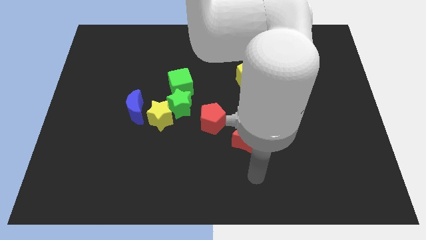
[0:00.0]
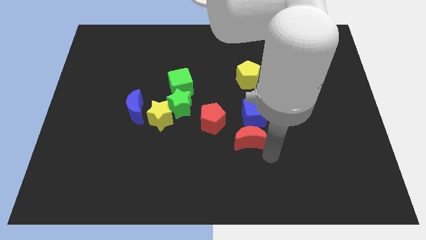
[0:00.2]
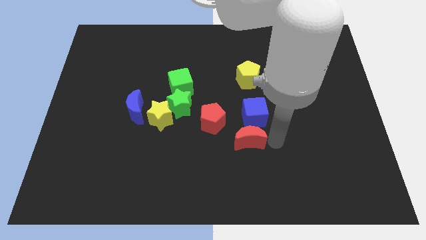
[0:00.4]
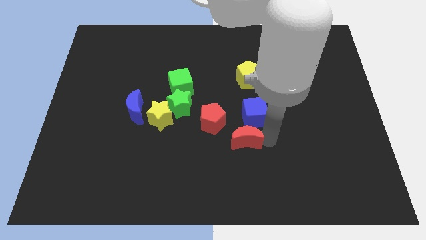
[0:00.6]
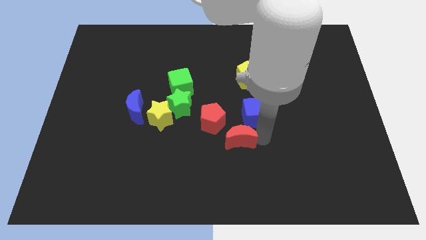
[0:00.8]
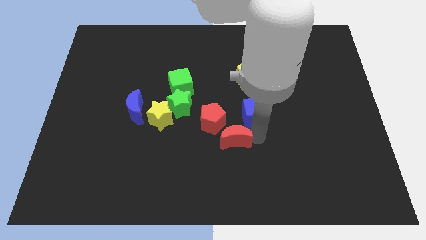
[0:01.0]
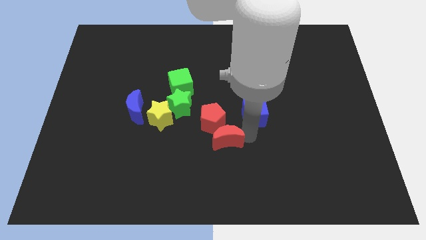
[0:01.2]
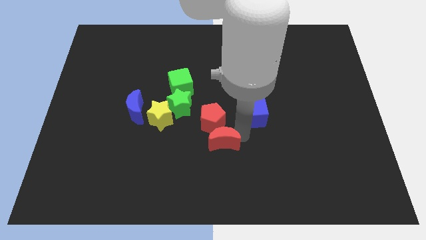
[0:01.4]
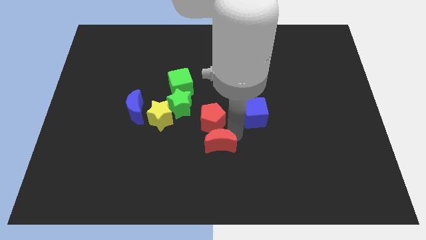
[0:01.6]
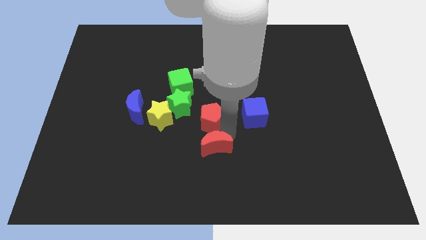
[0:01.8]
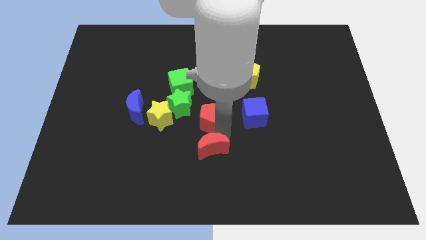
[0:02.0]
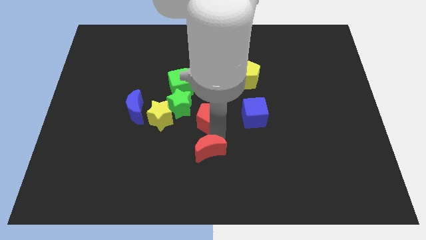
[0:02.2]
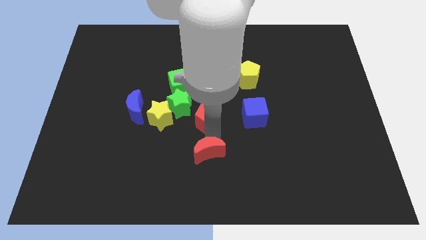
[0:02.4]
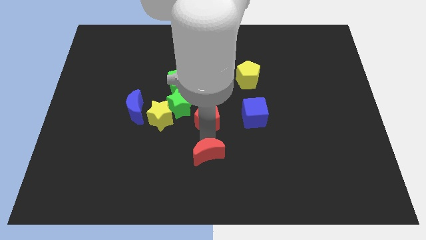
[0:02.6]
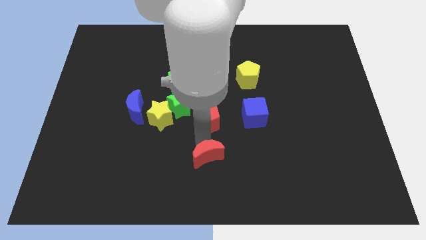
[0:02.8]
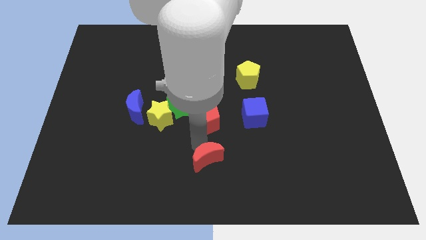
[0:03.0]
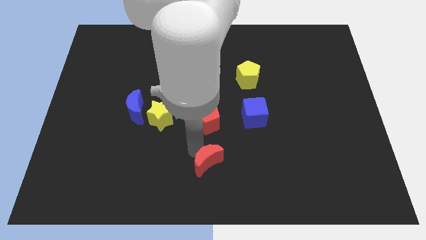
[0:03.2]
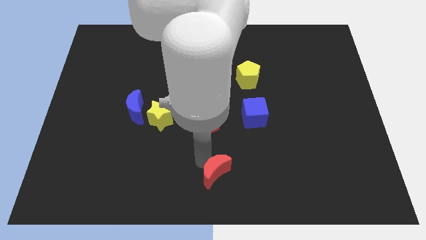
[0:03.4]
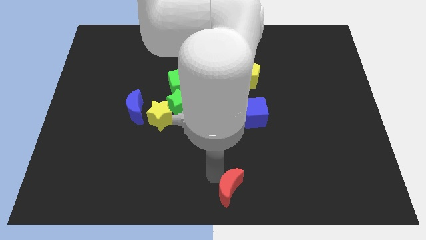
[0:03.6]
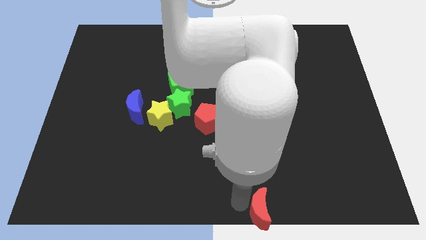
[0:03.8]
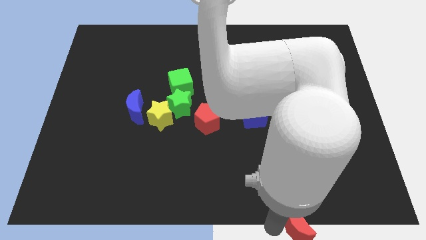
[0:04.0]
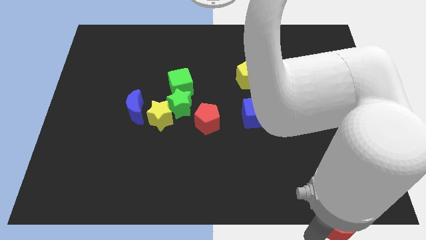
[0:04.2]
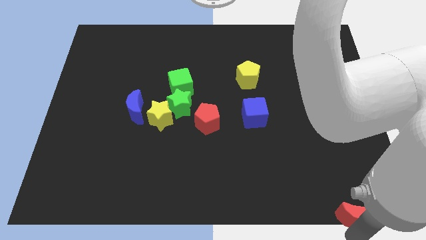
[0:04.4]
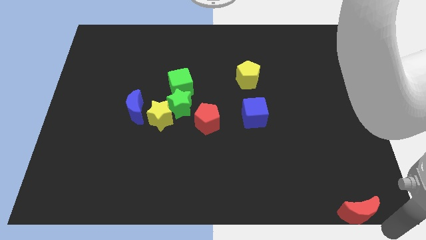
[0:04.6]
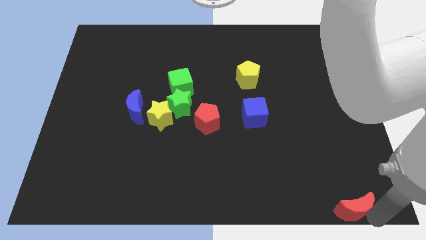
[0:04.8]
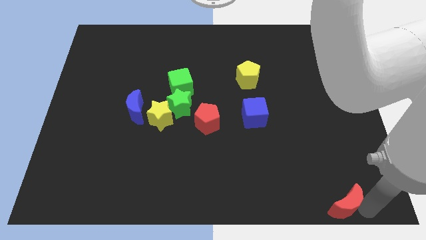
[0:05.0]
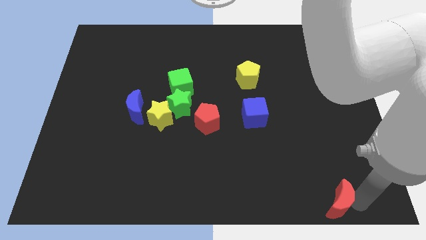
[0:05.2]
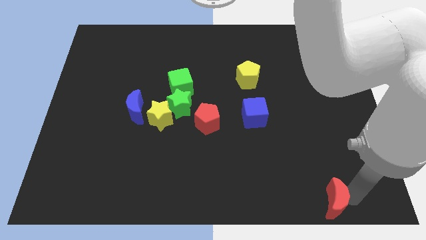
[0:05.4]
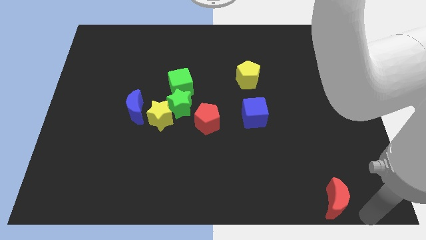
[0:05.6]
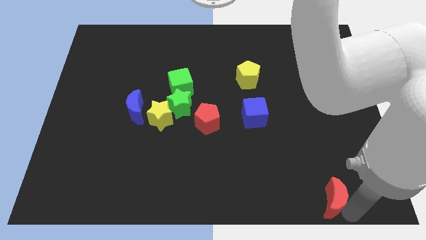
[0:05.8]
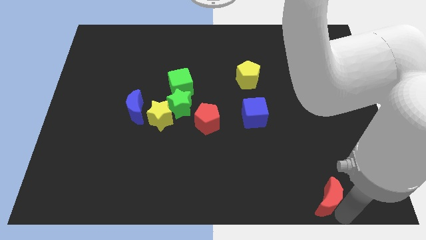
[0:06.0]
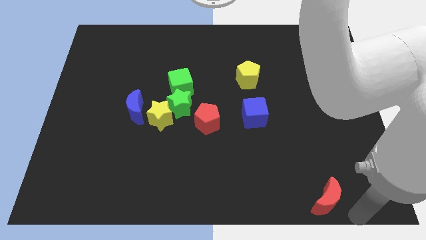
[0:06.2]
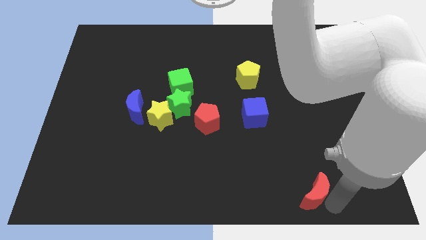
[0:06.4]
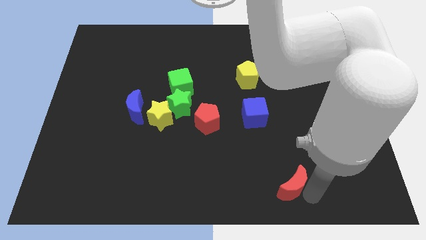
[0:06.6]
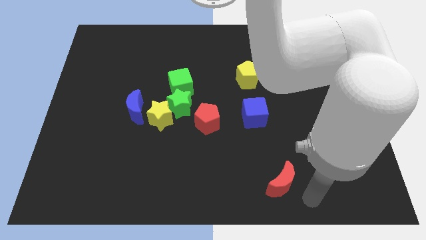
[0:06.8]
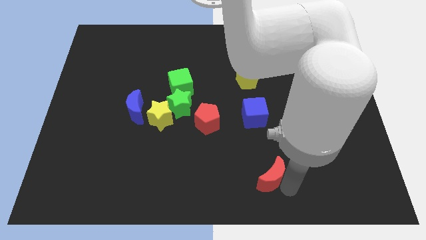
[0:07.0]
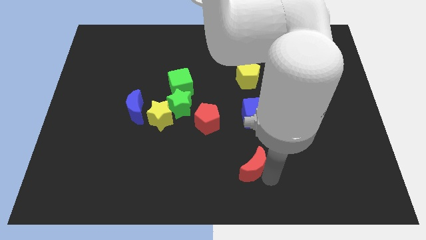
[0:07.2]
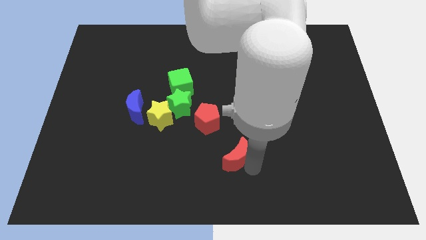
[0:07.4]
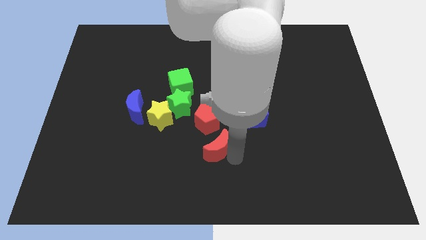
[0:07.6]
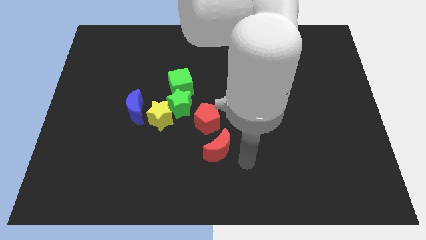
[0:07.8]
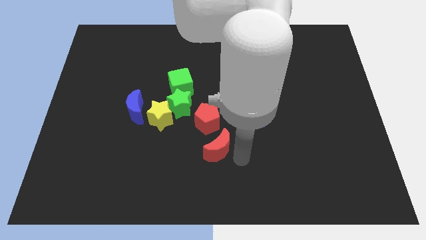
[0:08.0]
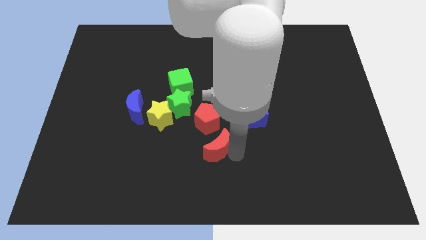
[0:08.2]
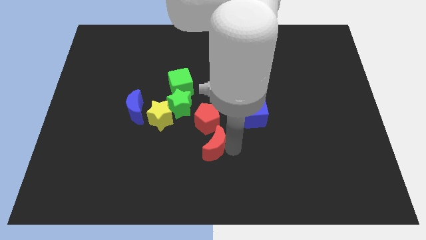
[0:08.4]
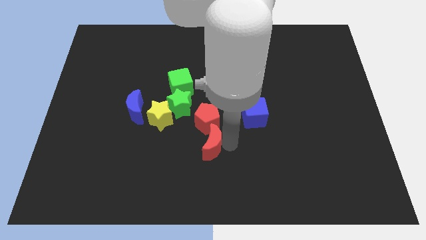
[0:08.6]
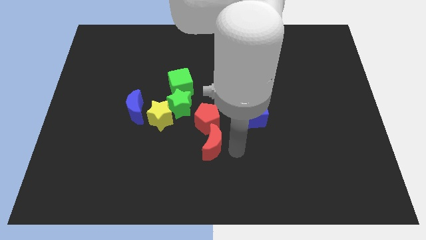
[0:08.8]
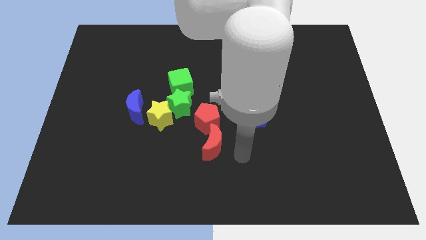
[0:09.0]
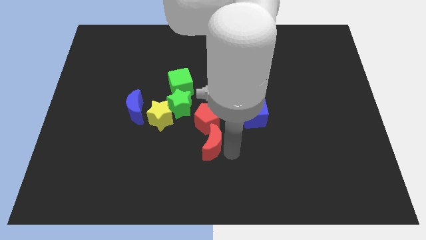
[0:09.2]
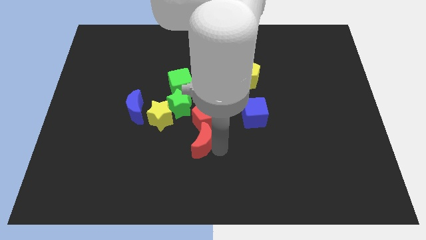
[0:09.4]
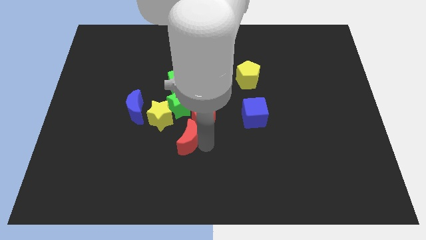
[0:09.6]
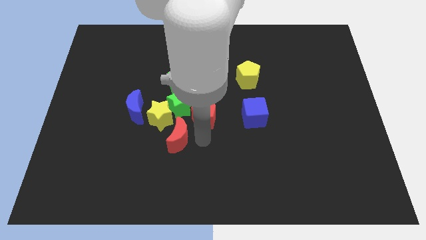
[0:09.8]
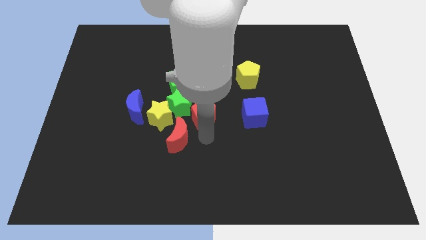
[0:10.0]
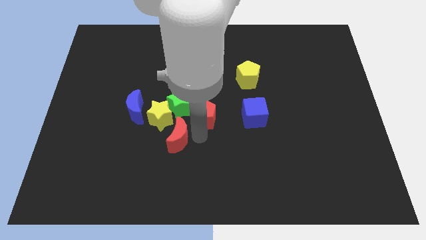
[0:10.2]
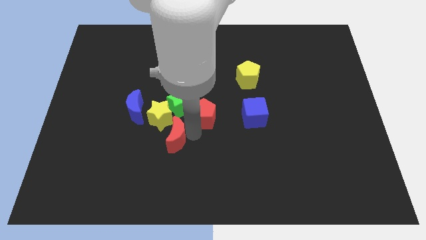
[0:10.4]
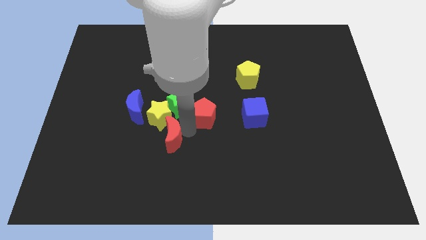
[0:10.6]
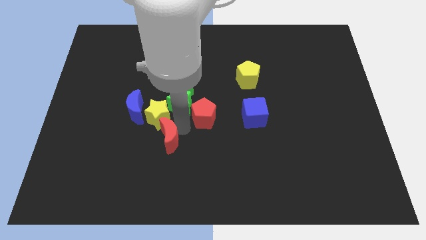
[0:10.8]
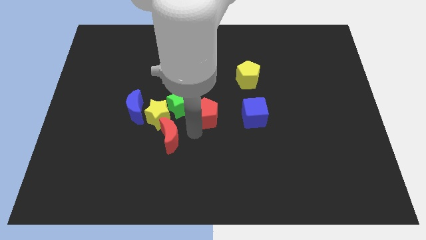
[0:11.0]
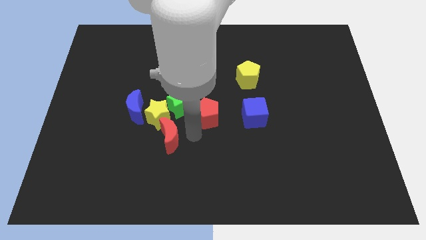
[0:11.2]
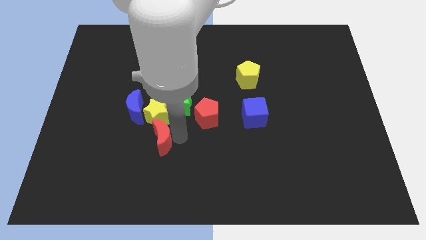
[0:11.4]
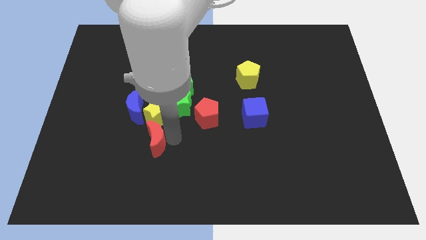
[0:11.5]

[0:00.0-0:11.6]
push the red moon left

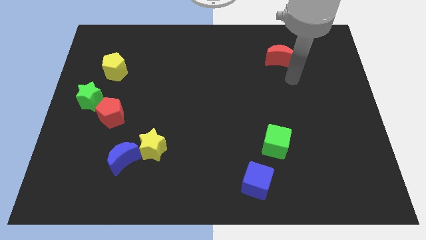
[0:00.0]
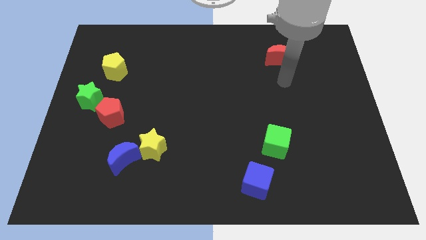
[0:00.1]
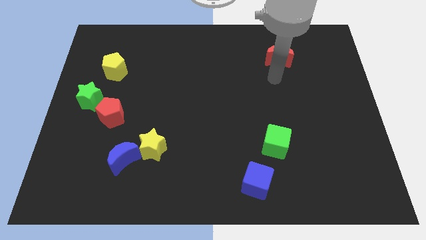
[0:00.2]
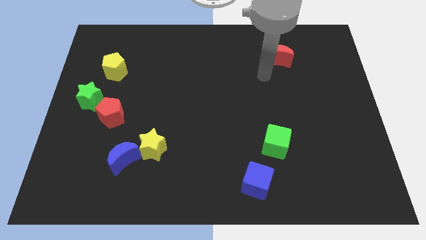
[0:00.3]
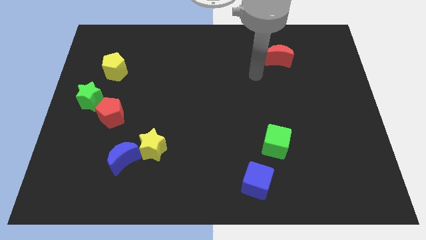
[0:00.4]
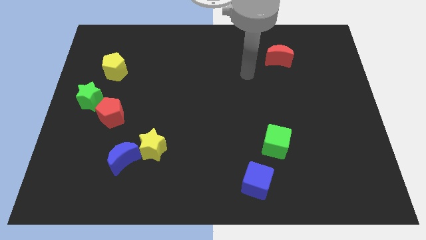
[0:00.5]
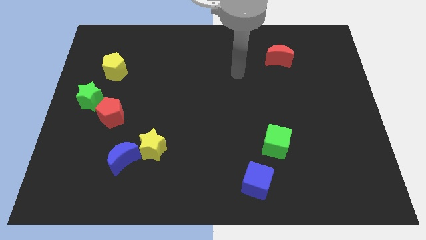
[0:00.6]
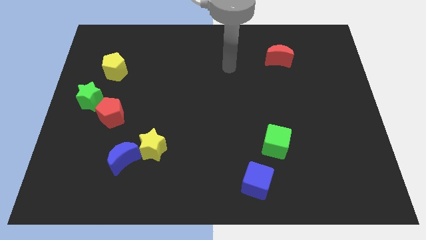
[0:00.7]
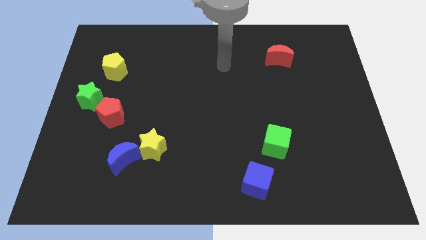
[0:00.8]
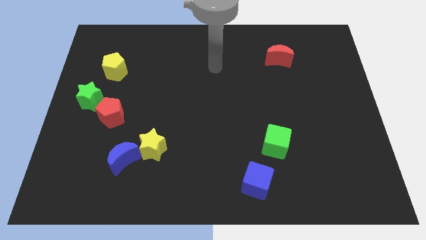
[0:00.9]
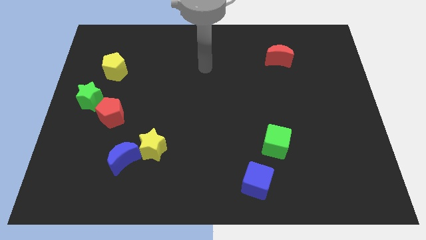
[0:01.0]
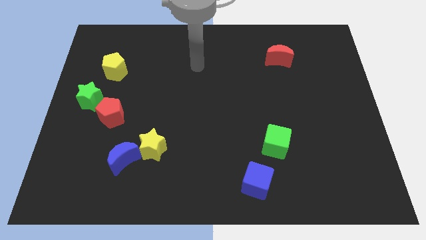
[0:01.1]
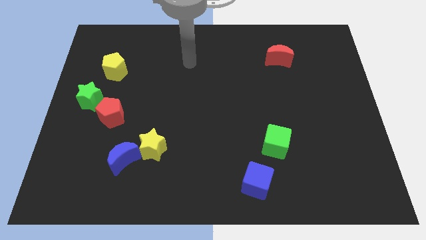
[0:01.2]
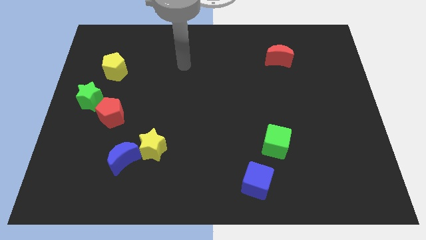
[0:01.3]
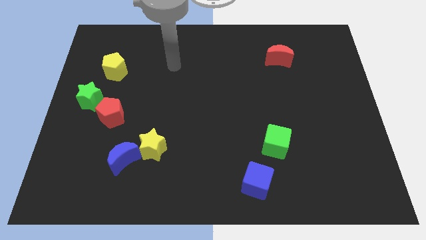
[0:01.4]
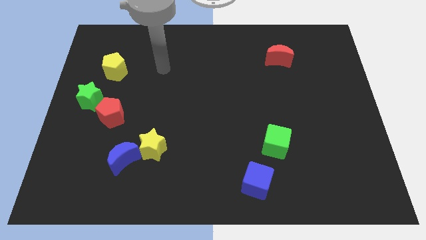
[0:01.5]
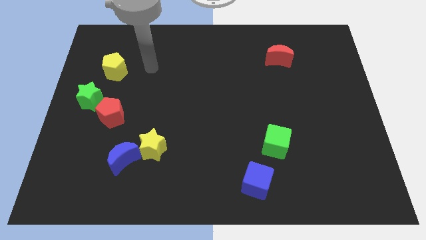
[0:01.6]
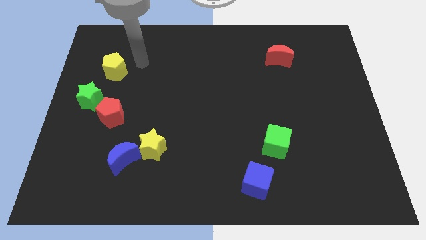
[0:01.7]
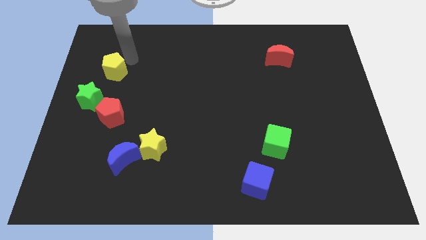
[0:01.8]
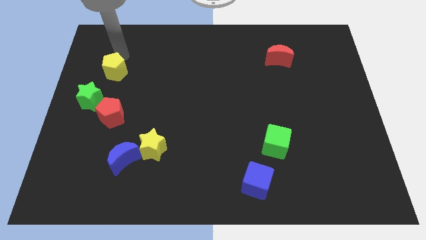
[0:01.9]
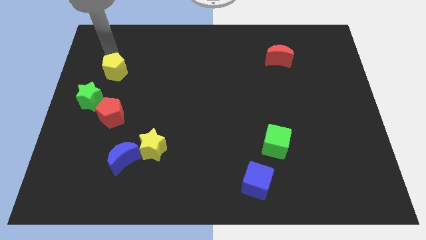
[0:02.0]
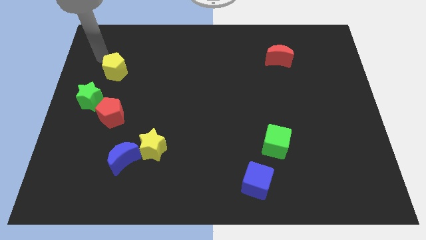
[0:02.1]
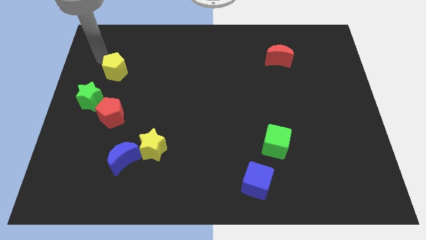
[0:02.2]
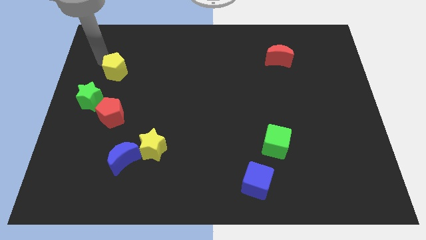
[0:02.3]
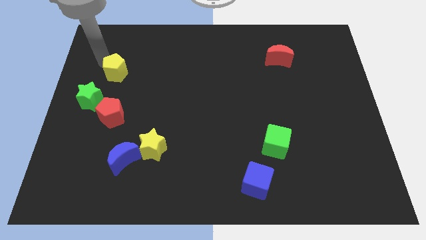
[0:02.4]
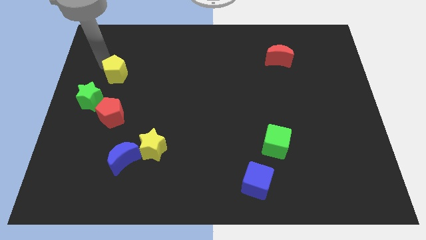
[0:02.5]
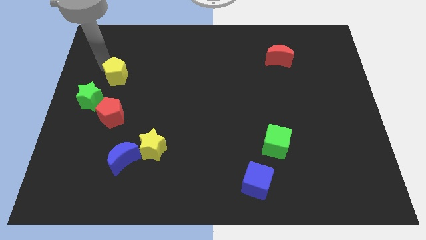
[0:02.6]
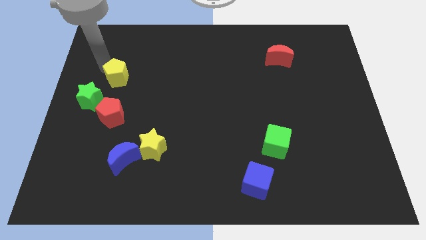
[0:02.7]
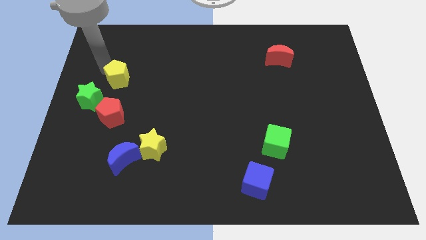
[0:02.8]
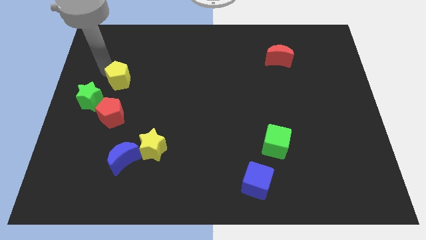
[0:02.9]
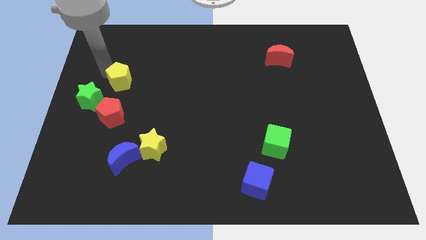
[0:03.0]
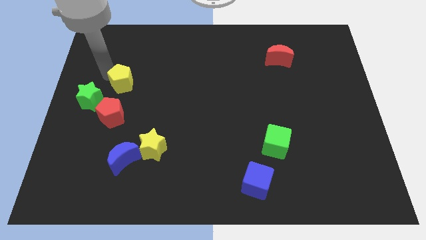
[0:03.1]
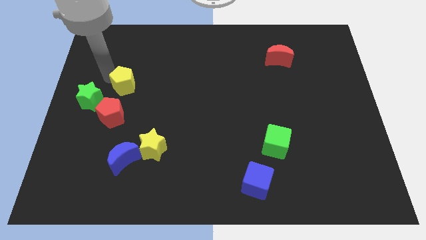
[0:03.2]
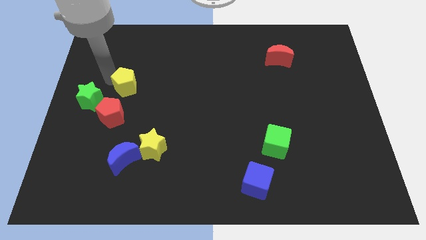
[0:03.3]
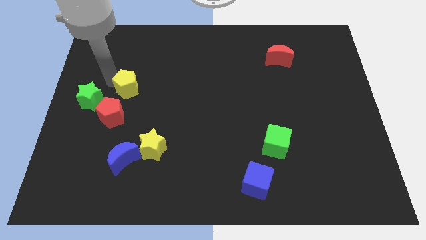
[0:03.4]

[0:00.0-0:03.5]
move the yellow pentagon a bit downwards and to the right
